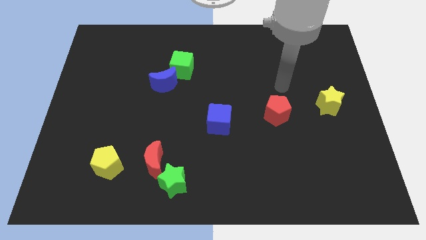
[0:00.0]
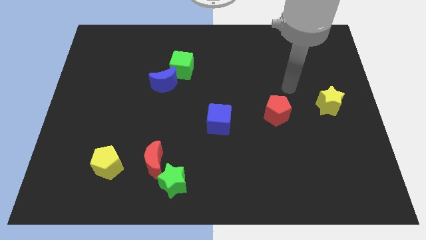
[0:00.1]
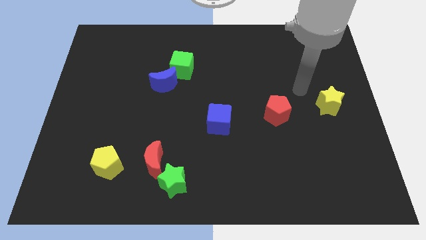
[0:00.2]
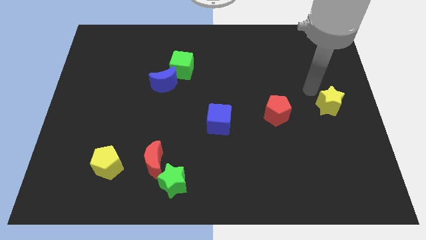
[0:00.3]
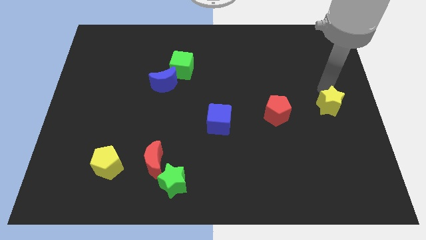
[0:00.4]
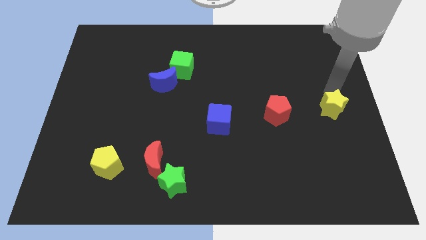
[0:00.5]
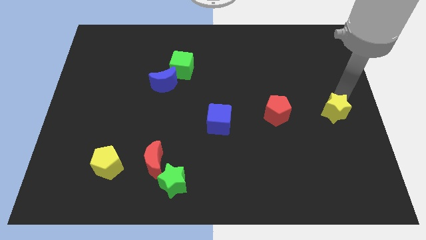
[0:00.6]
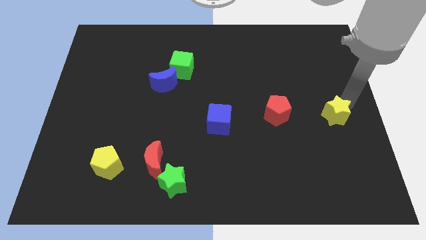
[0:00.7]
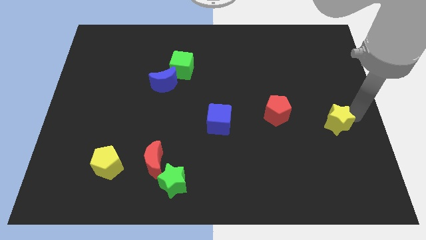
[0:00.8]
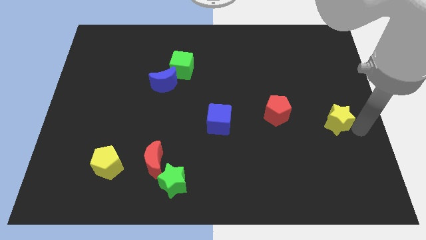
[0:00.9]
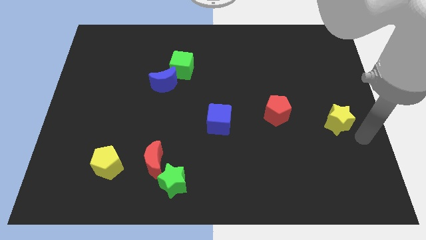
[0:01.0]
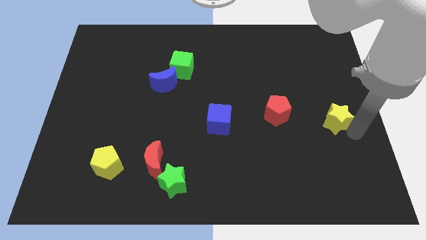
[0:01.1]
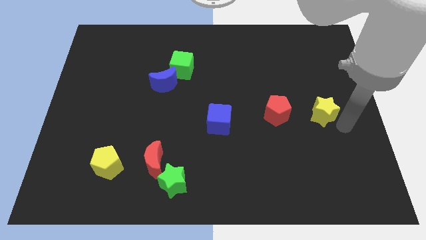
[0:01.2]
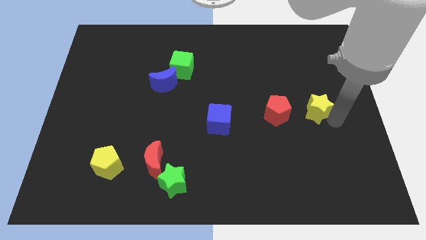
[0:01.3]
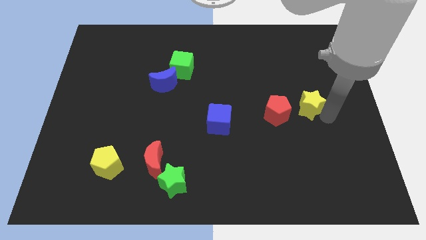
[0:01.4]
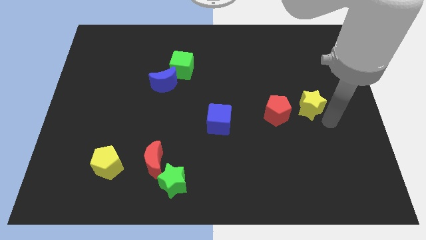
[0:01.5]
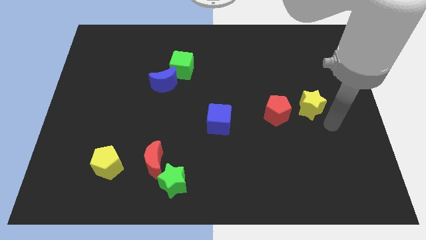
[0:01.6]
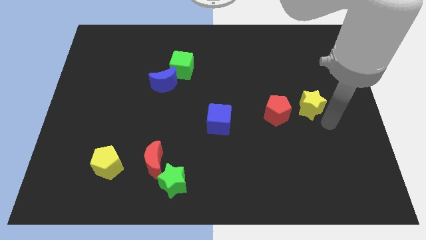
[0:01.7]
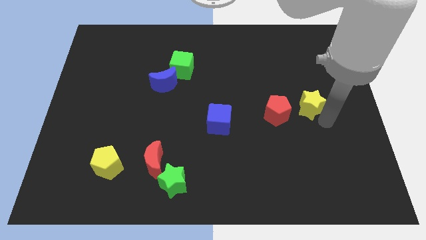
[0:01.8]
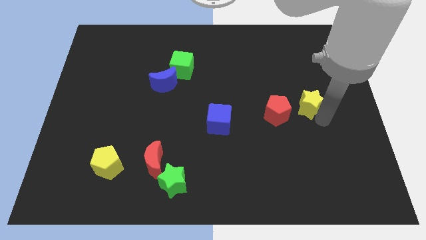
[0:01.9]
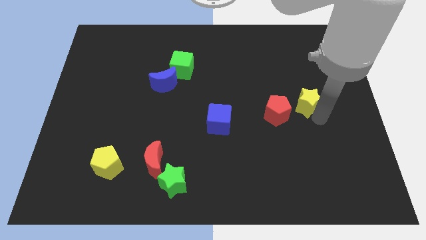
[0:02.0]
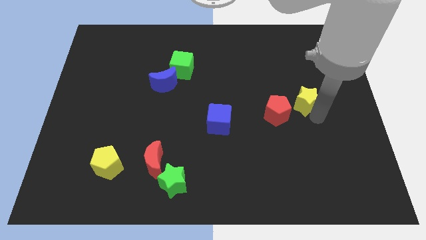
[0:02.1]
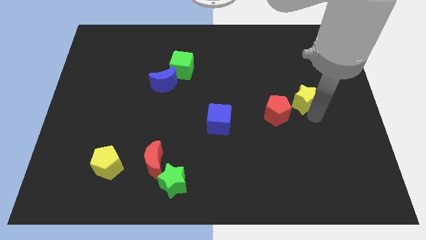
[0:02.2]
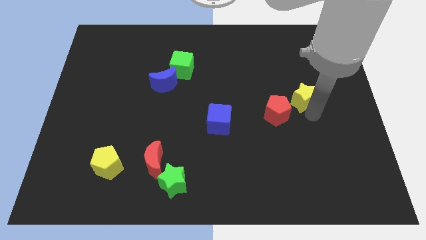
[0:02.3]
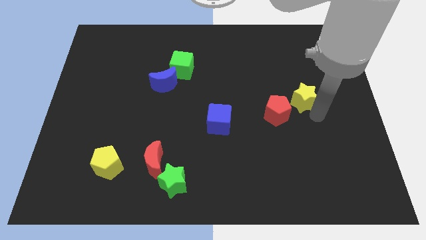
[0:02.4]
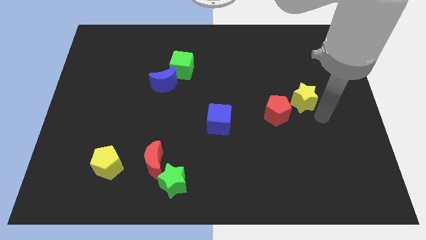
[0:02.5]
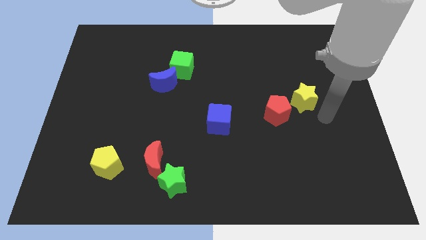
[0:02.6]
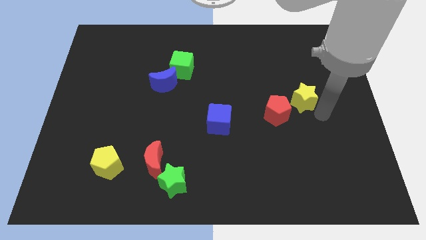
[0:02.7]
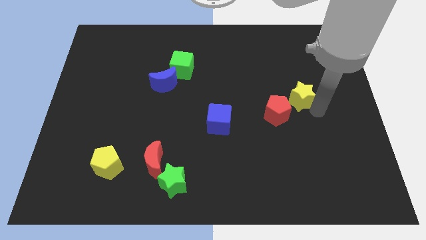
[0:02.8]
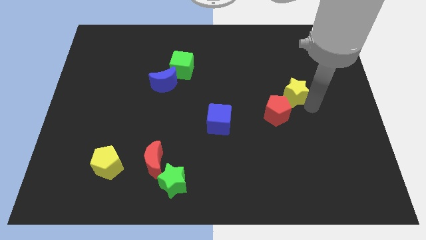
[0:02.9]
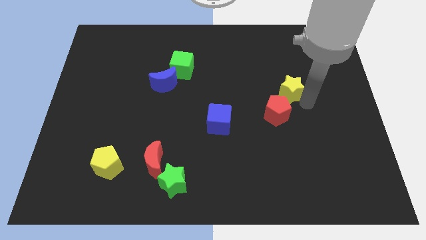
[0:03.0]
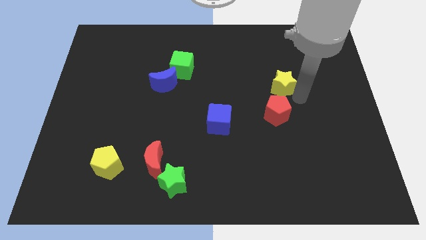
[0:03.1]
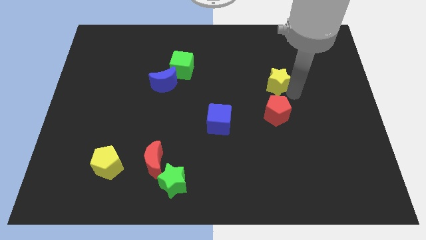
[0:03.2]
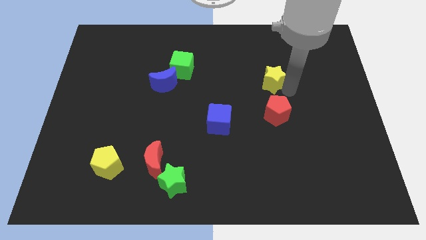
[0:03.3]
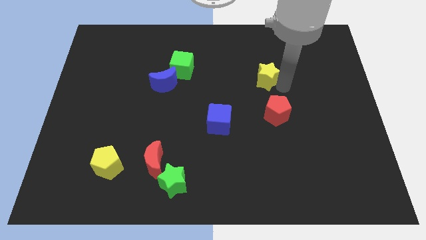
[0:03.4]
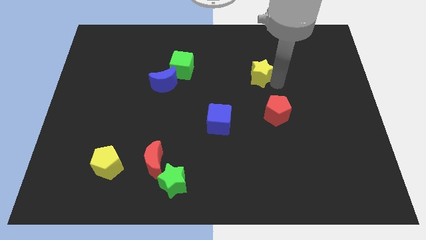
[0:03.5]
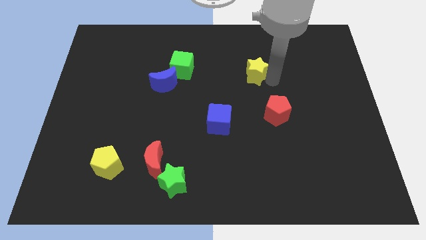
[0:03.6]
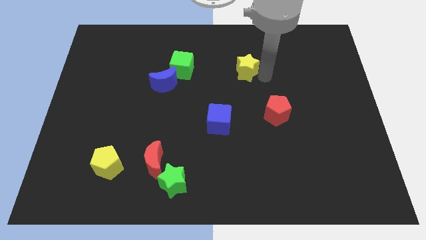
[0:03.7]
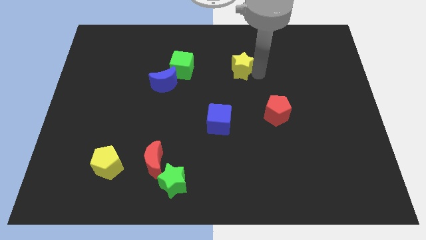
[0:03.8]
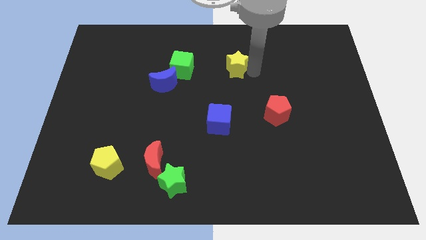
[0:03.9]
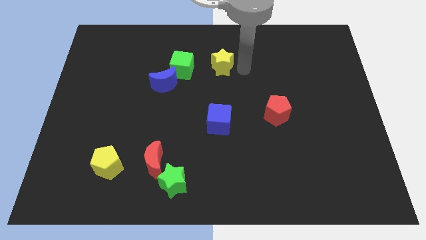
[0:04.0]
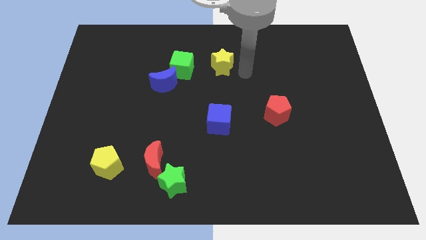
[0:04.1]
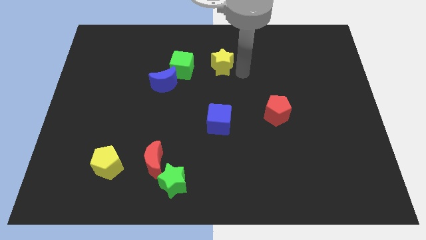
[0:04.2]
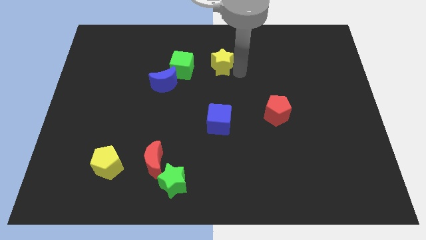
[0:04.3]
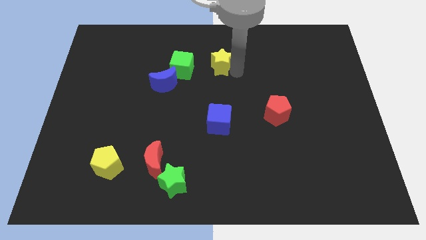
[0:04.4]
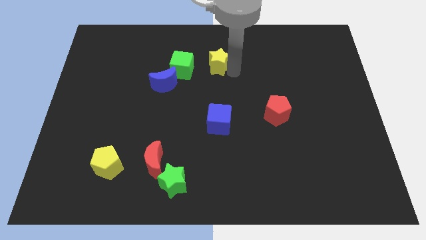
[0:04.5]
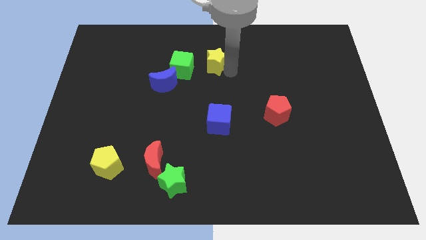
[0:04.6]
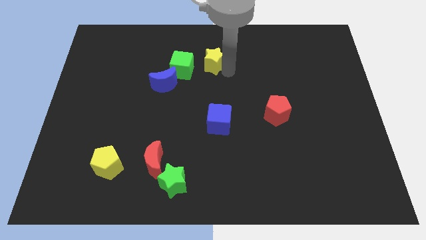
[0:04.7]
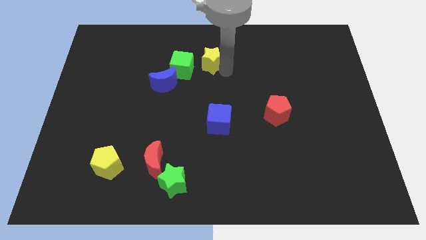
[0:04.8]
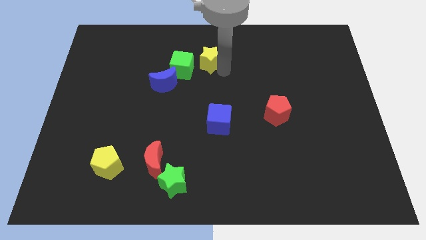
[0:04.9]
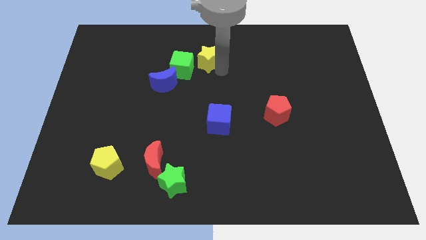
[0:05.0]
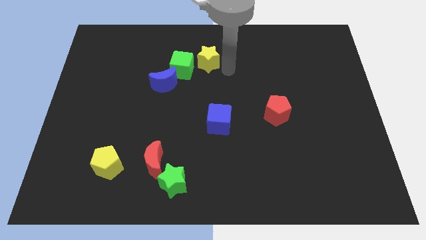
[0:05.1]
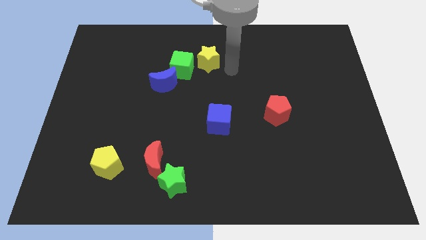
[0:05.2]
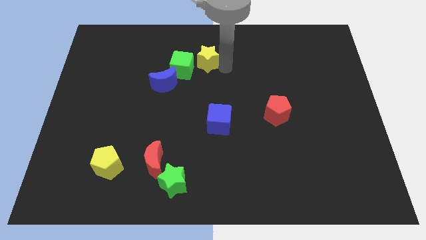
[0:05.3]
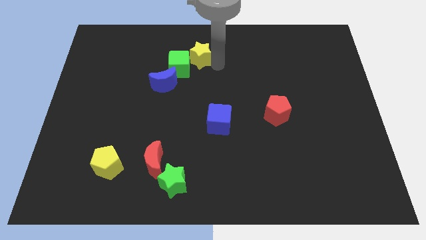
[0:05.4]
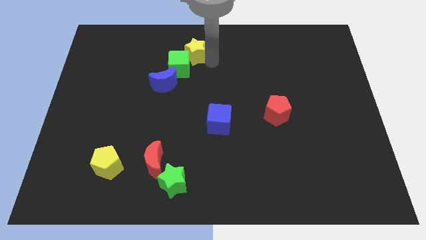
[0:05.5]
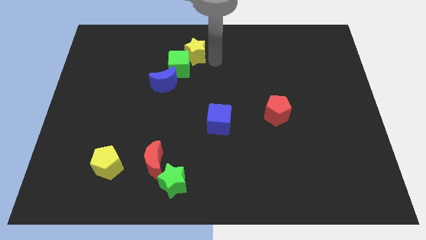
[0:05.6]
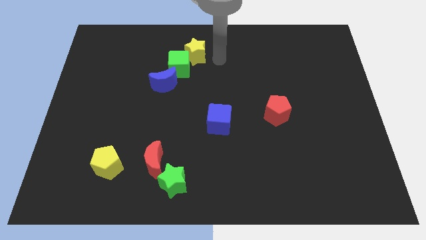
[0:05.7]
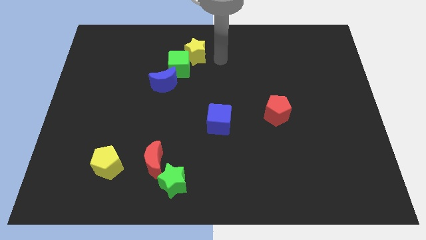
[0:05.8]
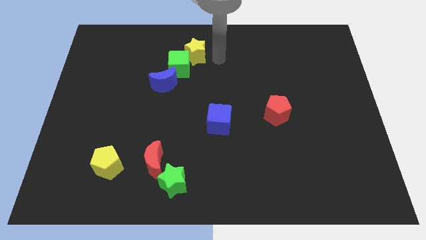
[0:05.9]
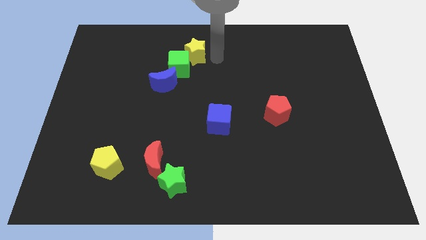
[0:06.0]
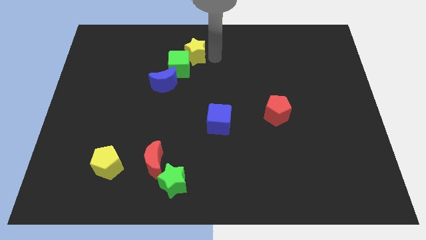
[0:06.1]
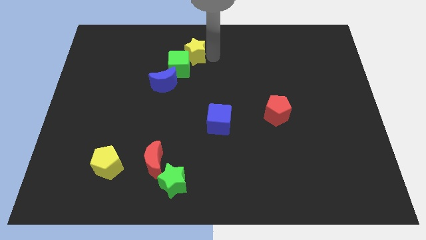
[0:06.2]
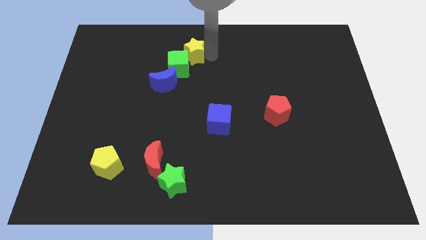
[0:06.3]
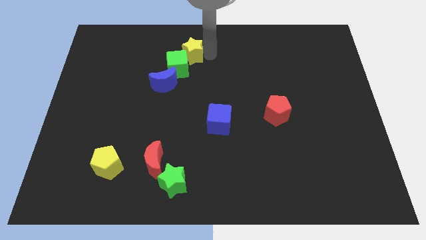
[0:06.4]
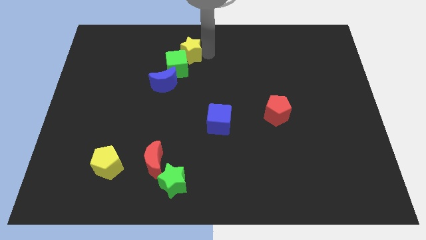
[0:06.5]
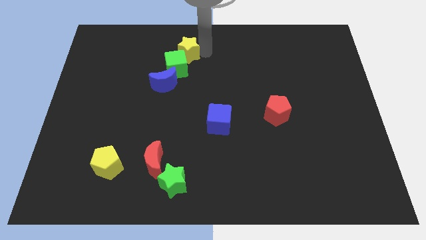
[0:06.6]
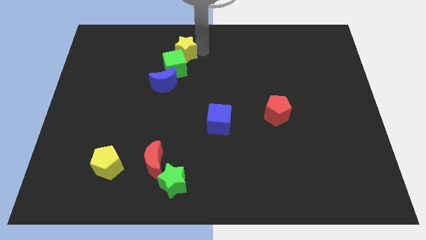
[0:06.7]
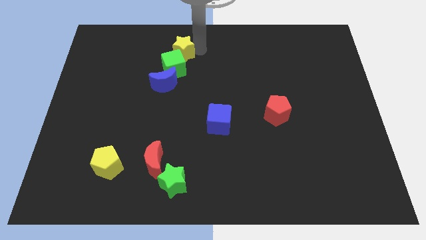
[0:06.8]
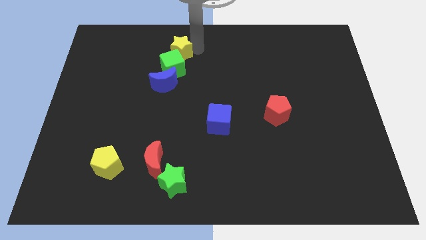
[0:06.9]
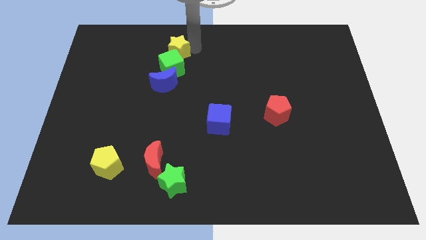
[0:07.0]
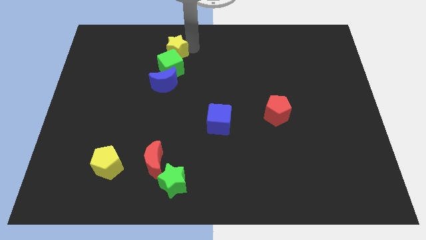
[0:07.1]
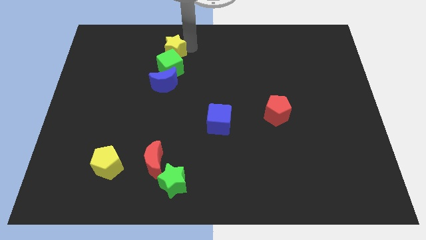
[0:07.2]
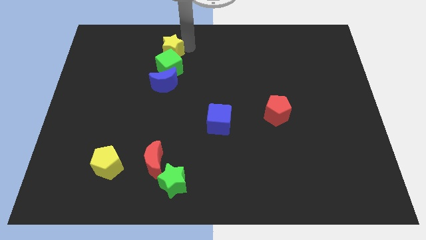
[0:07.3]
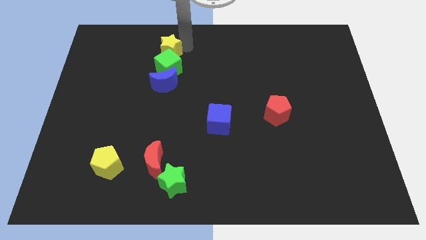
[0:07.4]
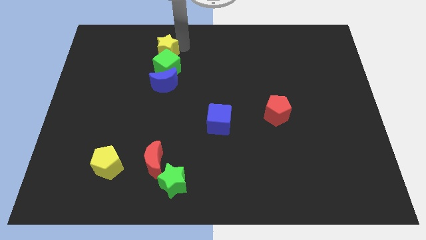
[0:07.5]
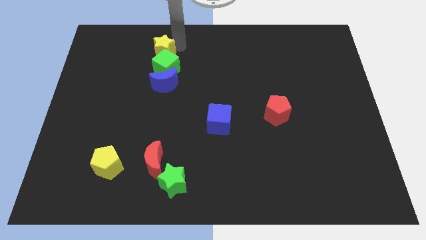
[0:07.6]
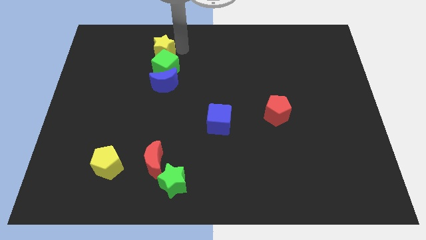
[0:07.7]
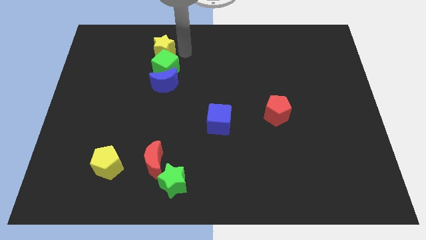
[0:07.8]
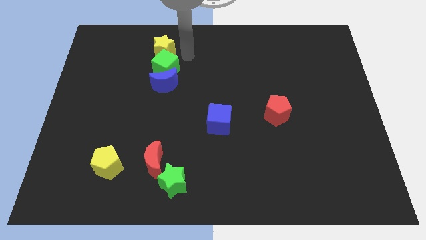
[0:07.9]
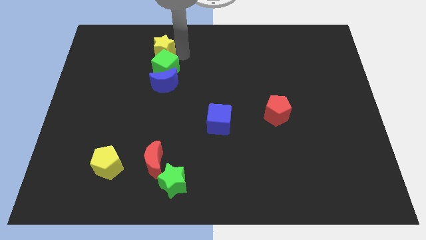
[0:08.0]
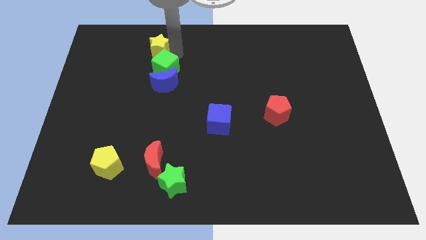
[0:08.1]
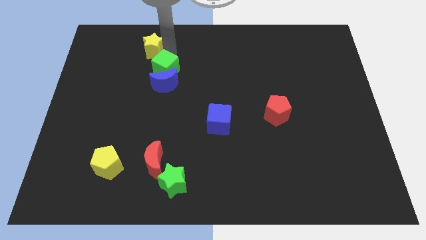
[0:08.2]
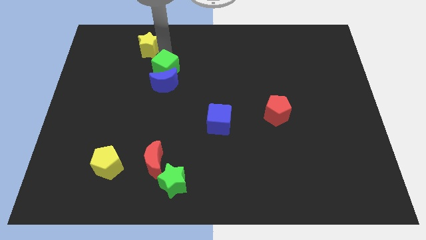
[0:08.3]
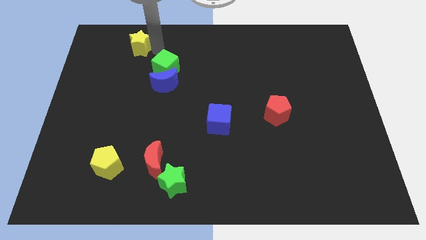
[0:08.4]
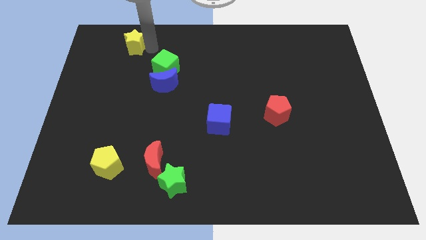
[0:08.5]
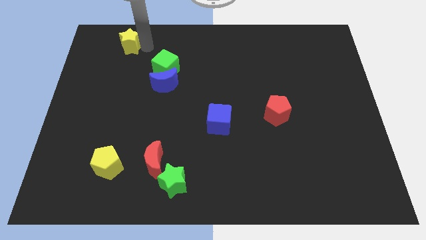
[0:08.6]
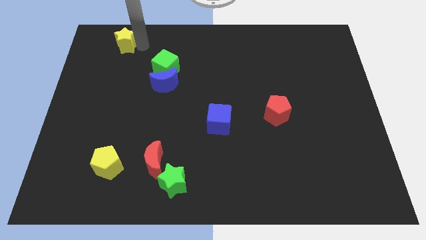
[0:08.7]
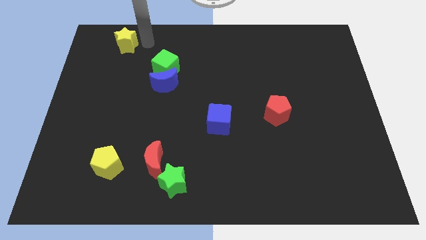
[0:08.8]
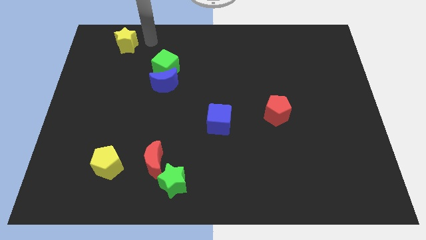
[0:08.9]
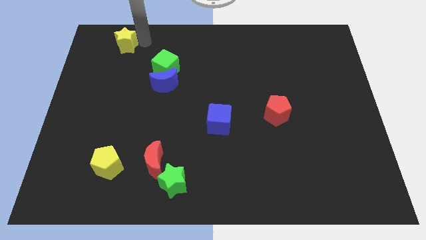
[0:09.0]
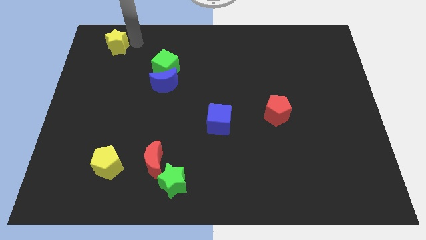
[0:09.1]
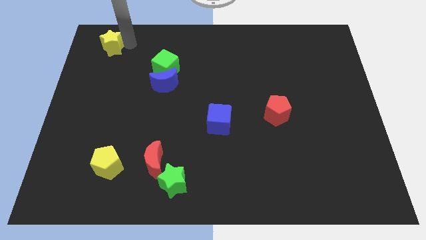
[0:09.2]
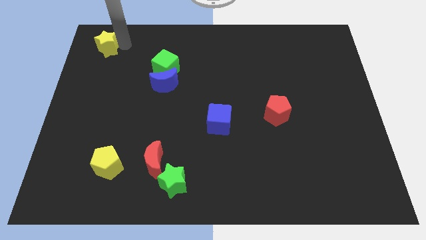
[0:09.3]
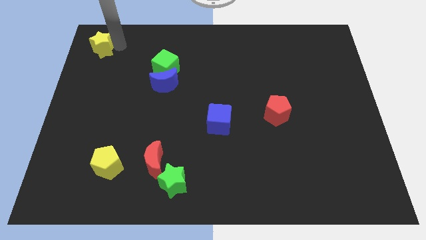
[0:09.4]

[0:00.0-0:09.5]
slide the yellow star to the top left
